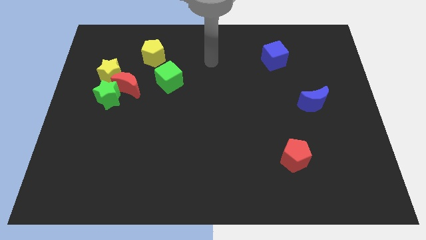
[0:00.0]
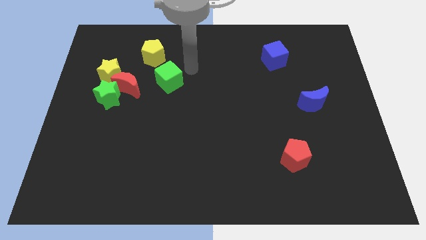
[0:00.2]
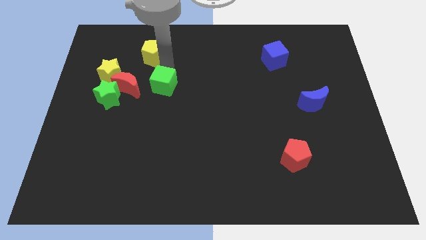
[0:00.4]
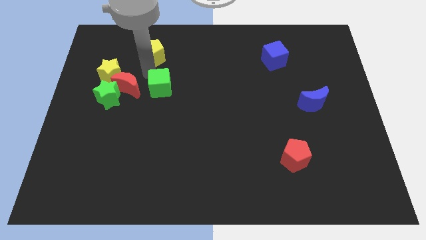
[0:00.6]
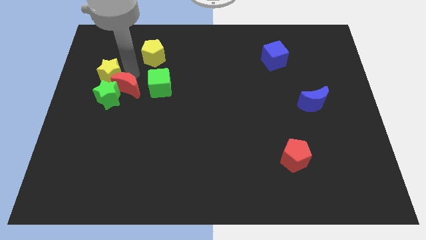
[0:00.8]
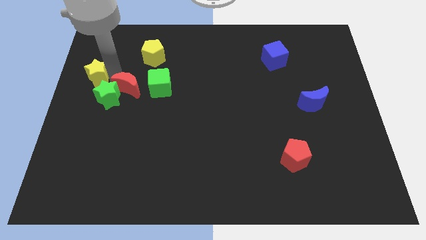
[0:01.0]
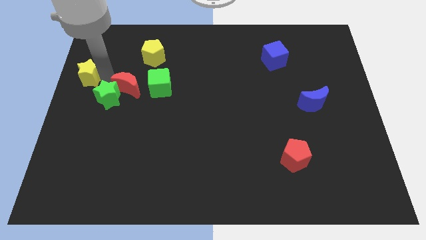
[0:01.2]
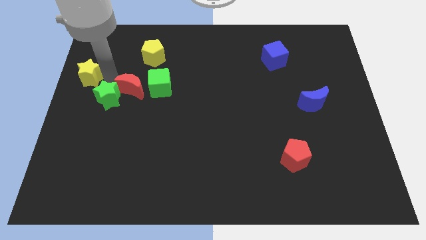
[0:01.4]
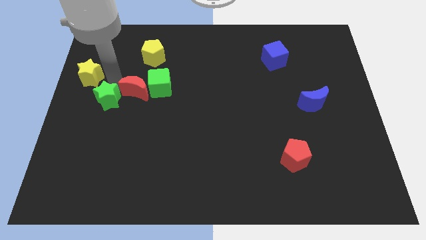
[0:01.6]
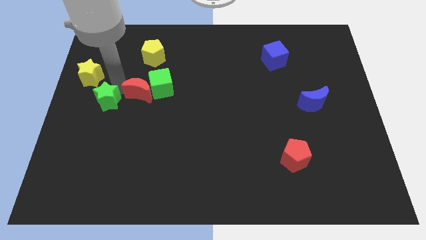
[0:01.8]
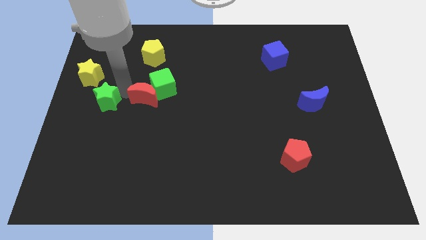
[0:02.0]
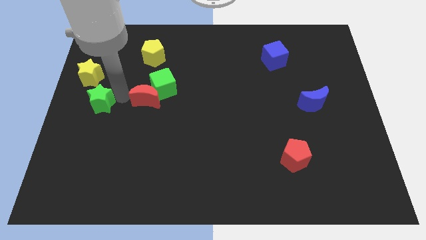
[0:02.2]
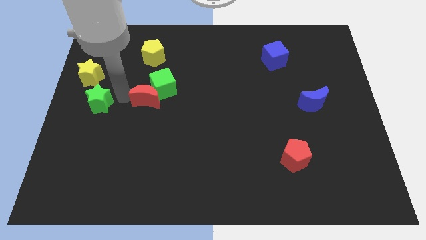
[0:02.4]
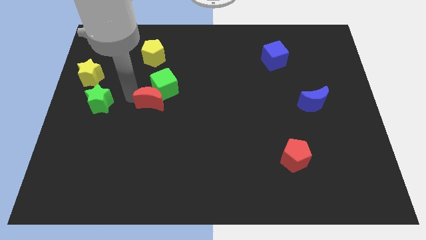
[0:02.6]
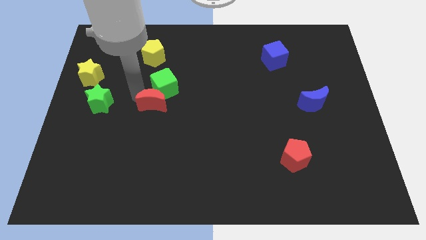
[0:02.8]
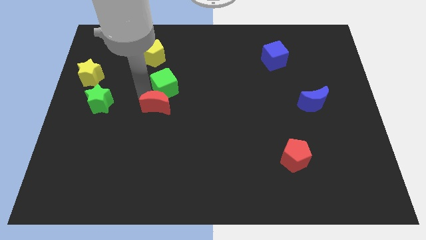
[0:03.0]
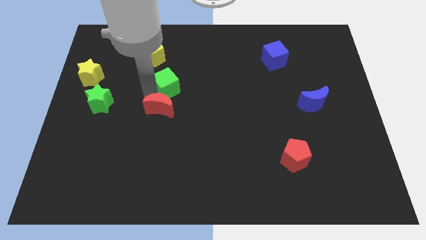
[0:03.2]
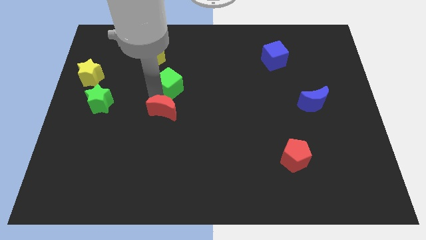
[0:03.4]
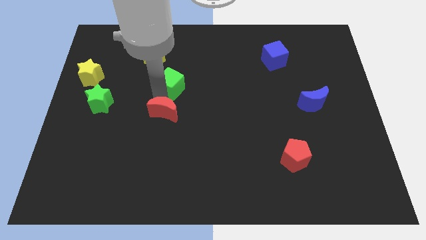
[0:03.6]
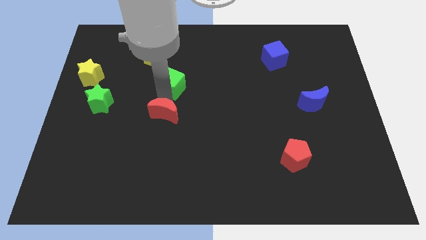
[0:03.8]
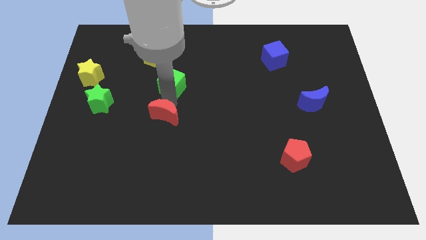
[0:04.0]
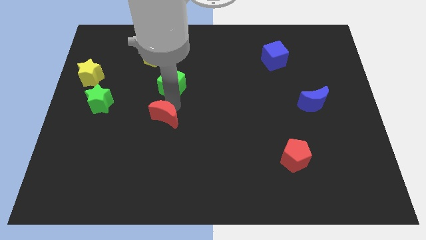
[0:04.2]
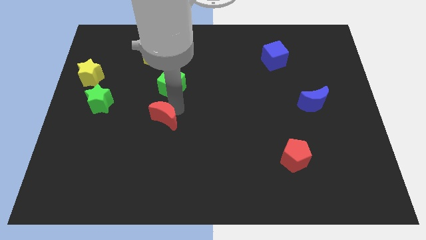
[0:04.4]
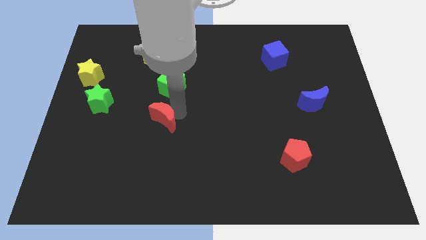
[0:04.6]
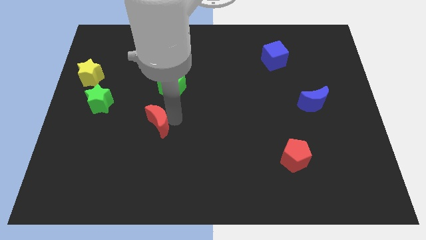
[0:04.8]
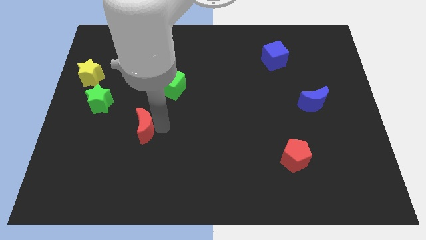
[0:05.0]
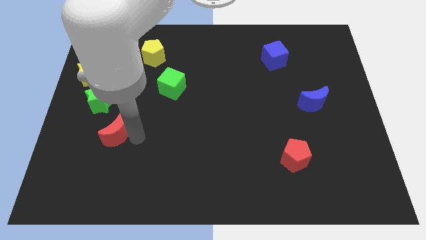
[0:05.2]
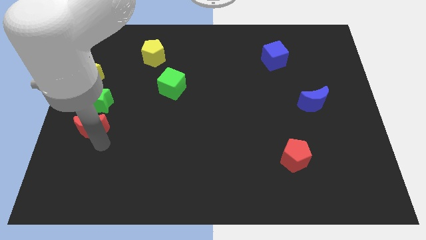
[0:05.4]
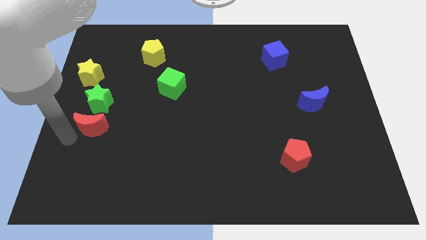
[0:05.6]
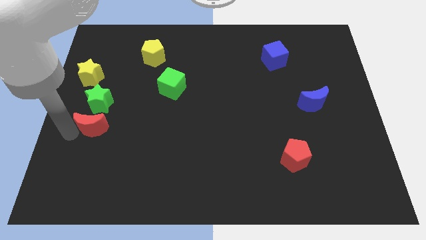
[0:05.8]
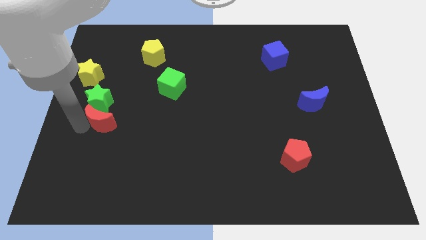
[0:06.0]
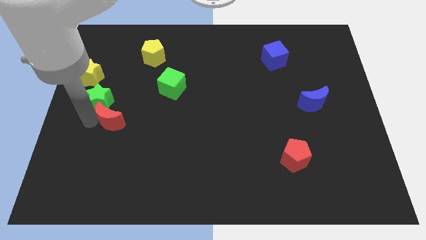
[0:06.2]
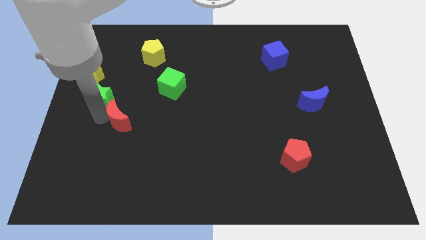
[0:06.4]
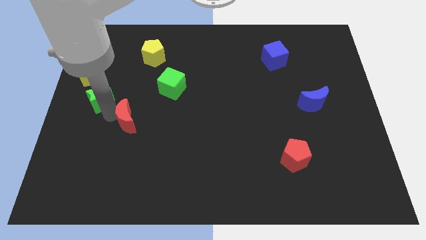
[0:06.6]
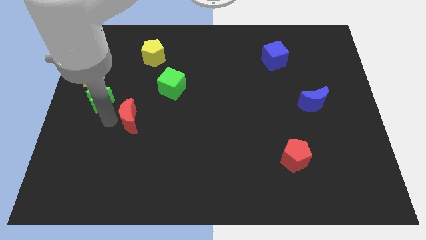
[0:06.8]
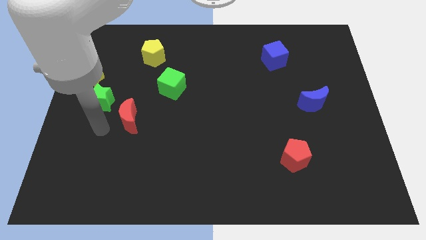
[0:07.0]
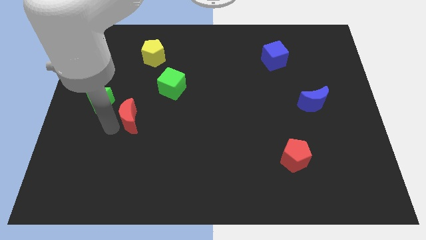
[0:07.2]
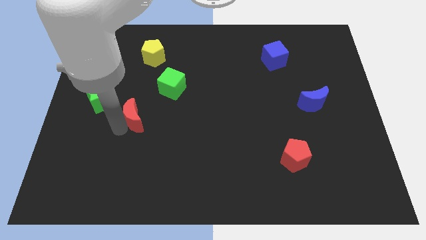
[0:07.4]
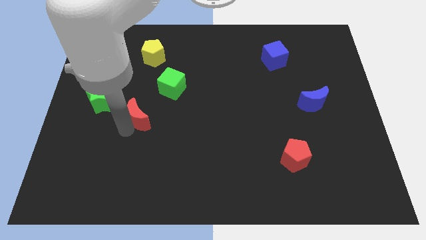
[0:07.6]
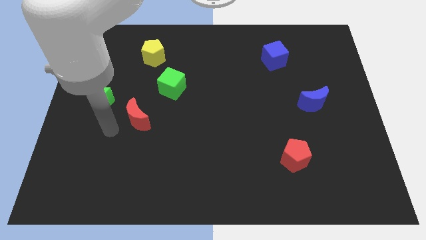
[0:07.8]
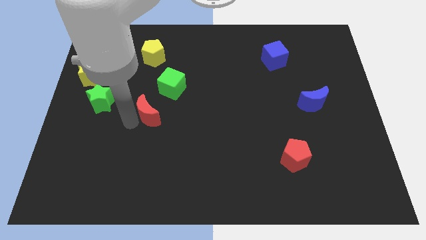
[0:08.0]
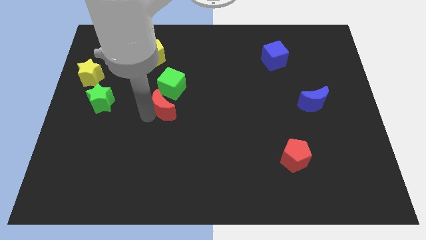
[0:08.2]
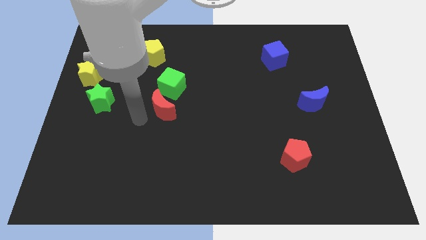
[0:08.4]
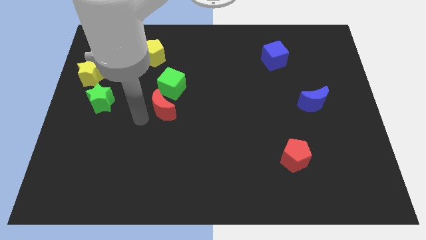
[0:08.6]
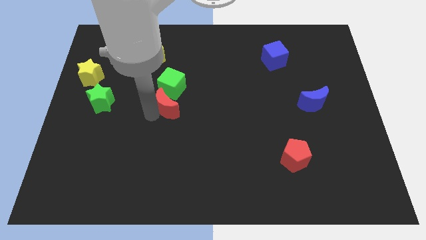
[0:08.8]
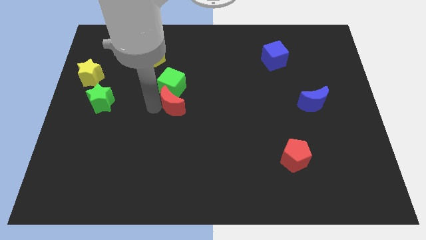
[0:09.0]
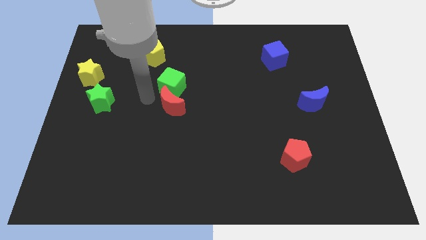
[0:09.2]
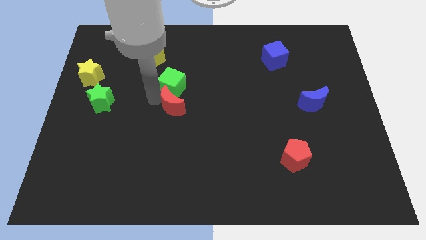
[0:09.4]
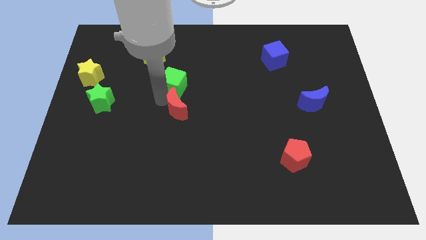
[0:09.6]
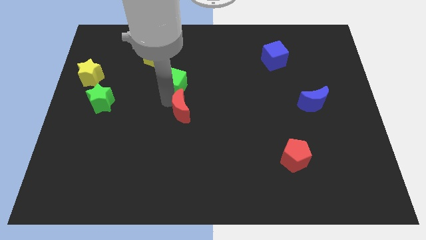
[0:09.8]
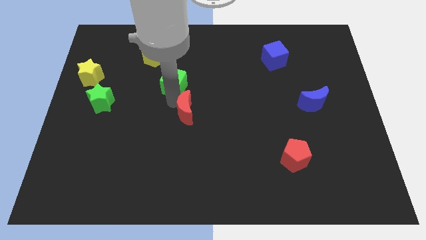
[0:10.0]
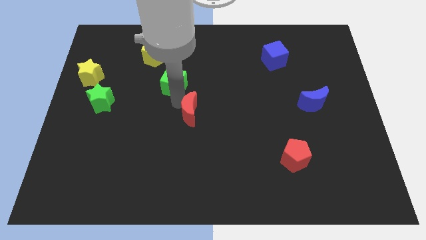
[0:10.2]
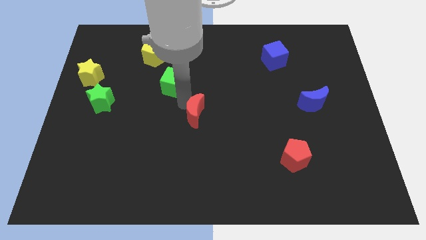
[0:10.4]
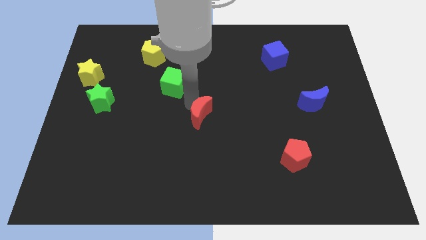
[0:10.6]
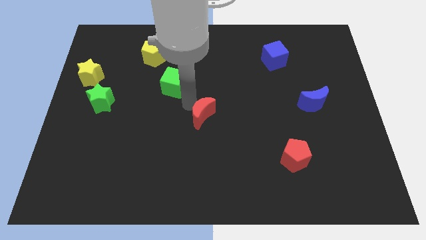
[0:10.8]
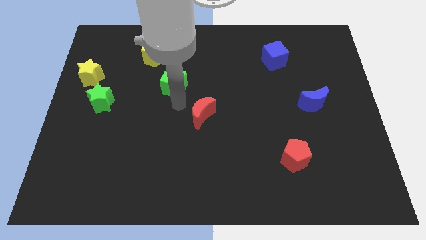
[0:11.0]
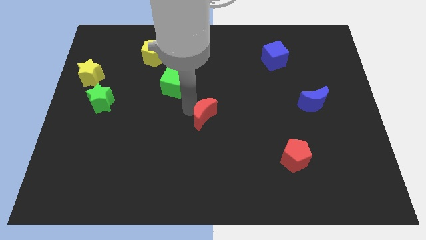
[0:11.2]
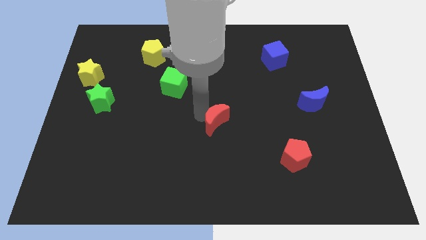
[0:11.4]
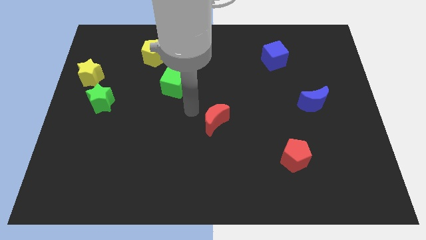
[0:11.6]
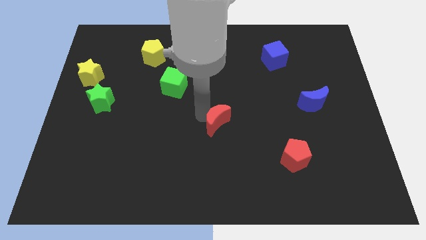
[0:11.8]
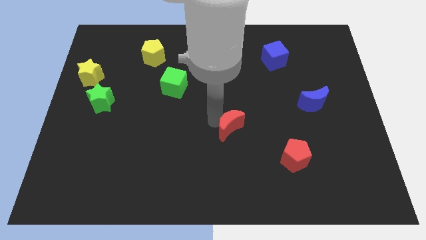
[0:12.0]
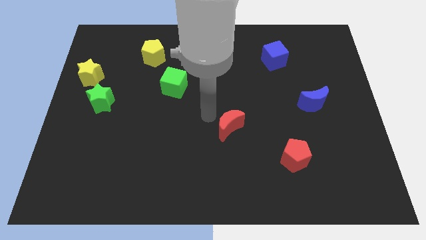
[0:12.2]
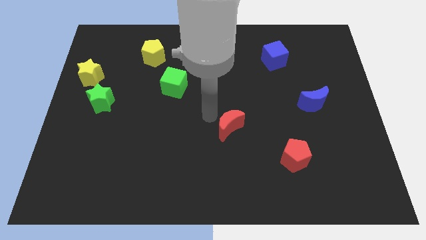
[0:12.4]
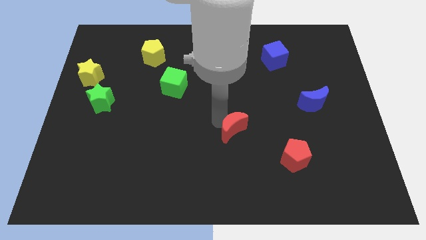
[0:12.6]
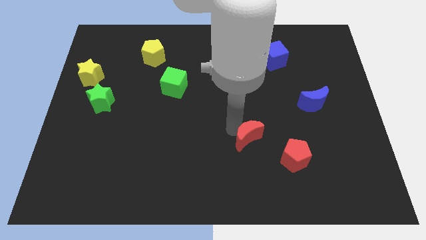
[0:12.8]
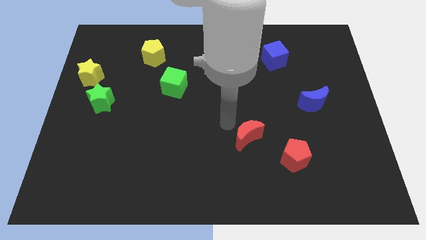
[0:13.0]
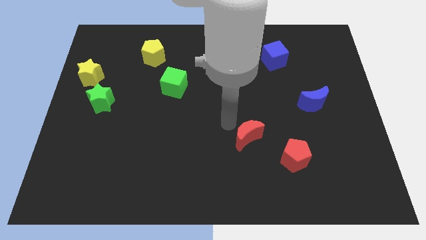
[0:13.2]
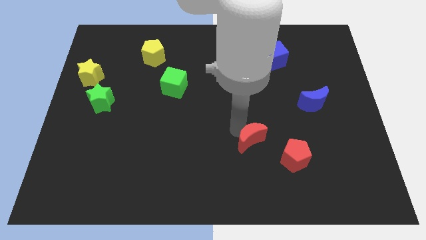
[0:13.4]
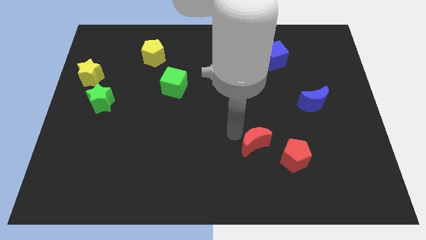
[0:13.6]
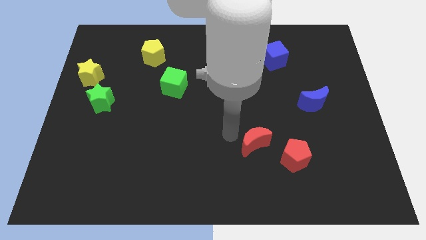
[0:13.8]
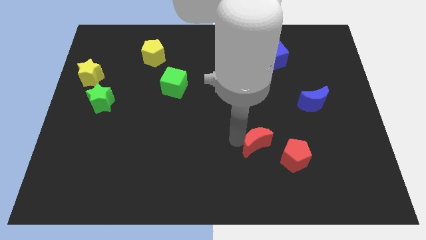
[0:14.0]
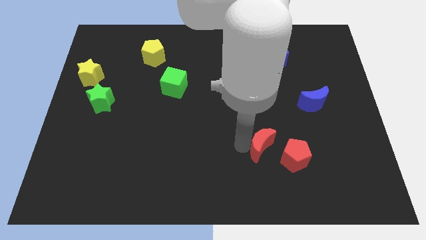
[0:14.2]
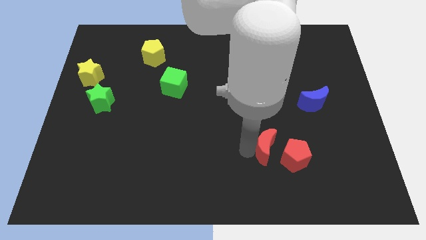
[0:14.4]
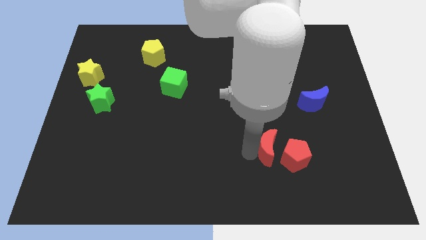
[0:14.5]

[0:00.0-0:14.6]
move the red moon next to the red pentagon
